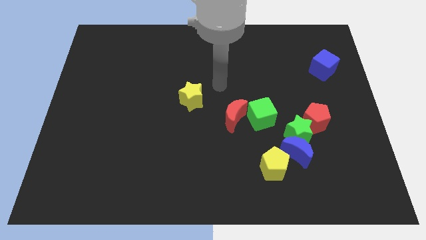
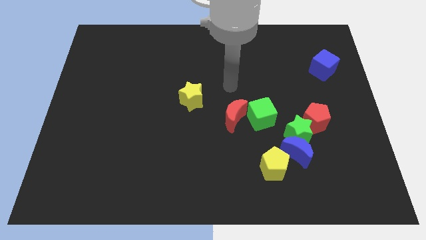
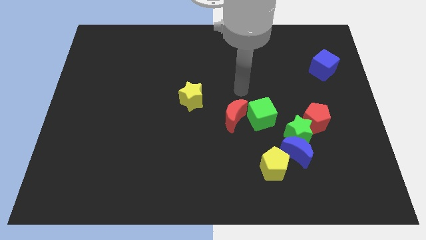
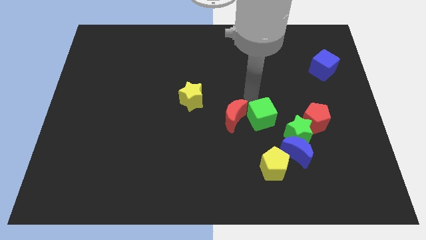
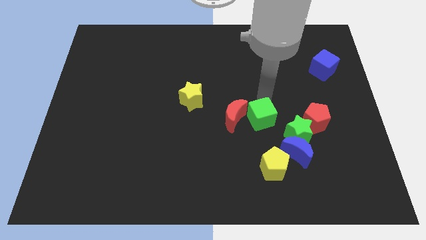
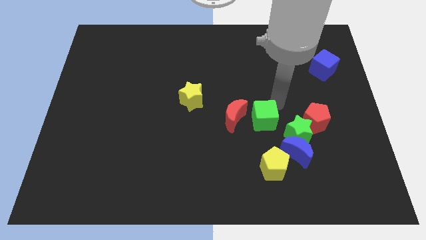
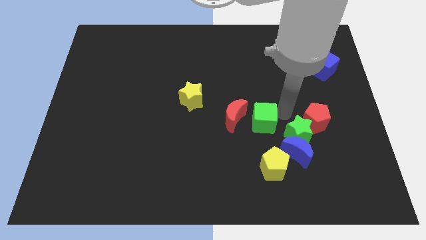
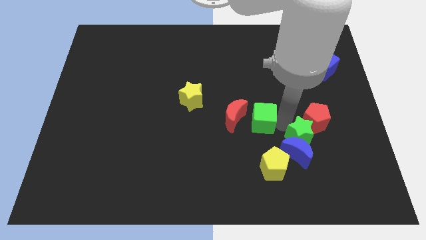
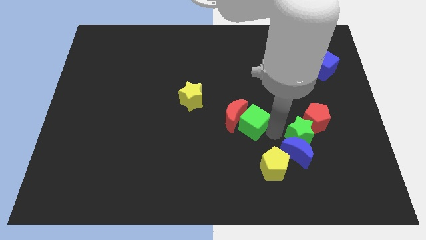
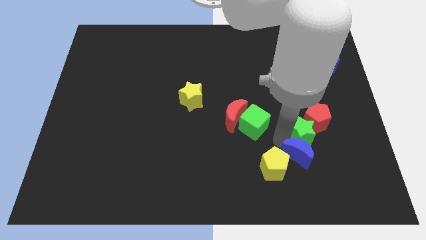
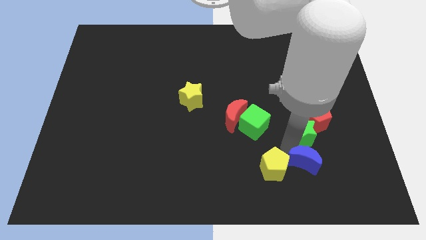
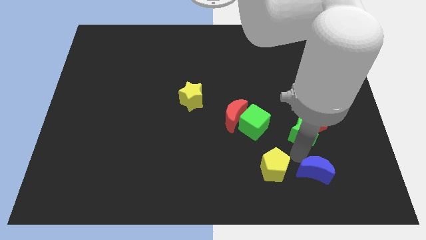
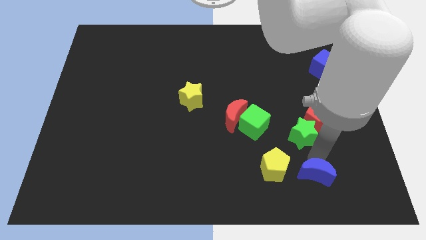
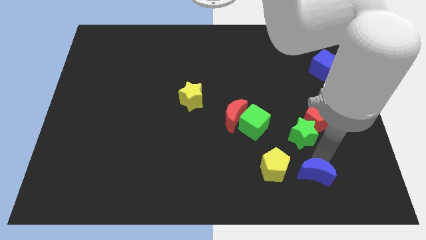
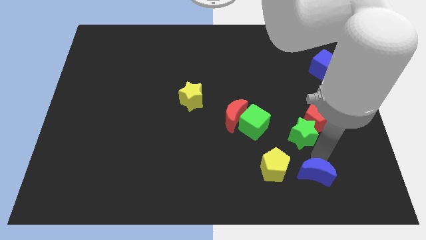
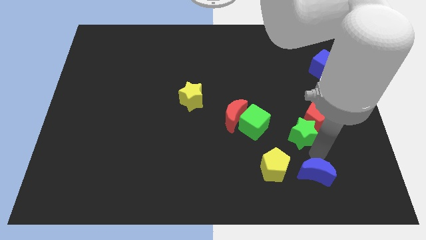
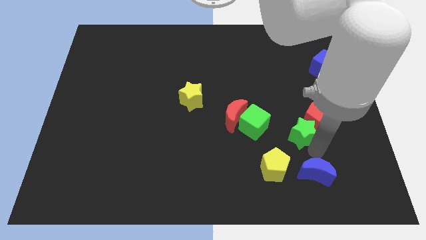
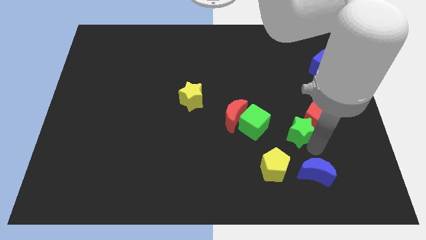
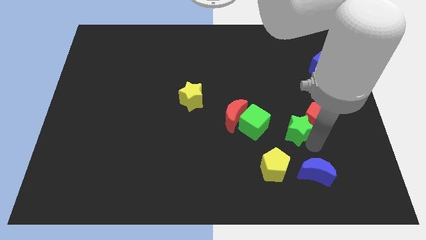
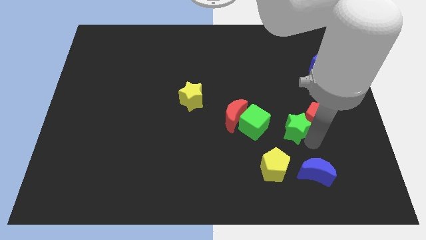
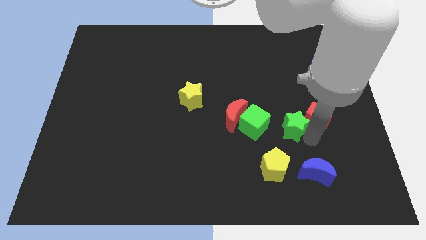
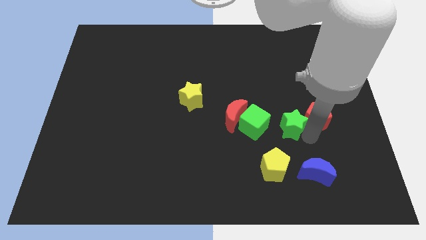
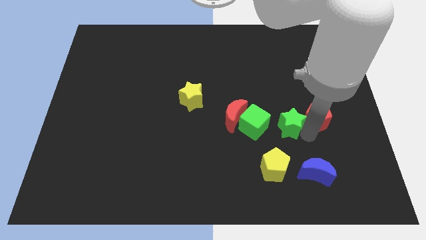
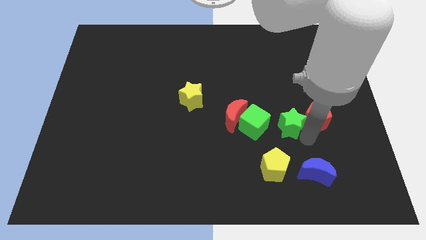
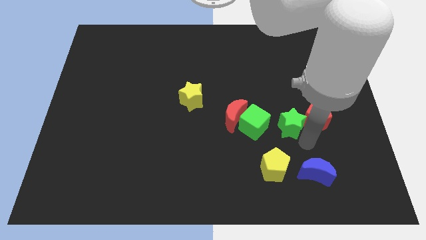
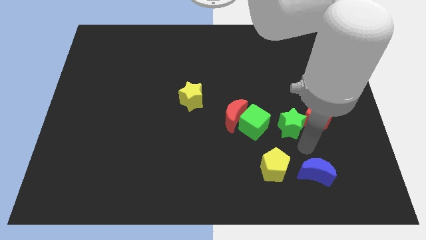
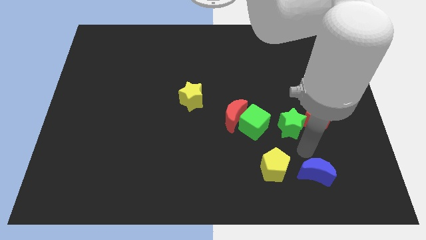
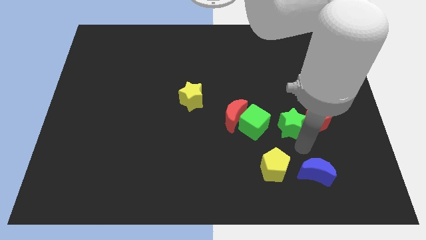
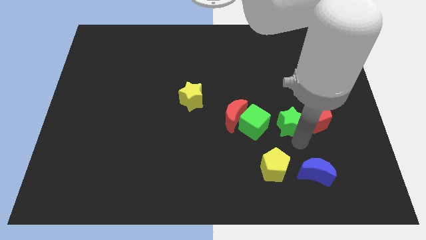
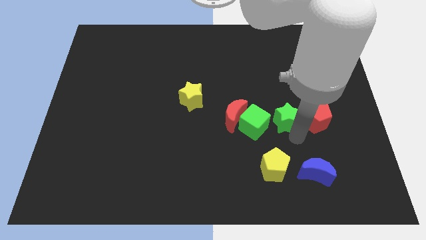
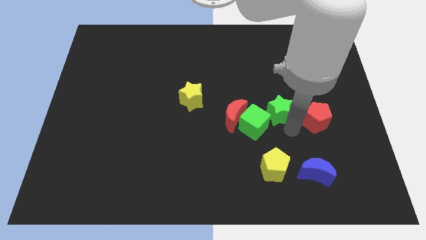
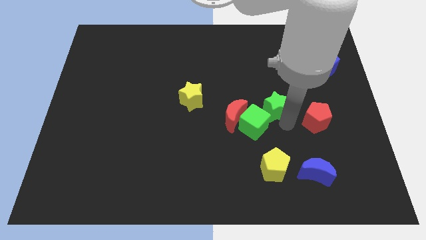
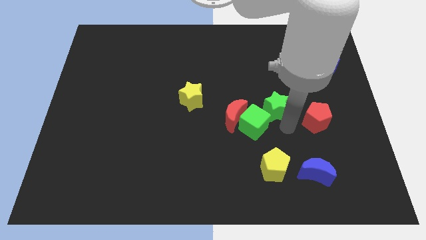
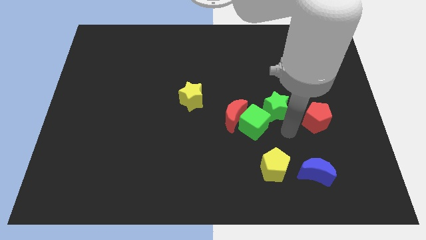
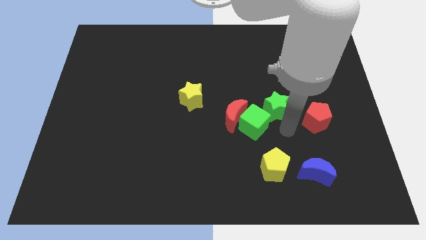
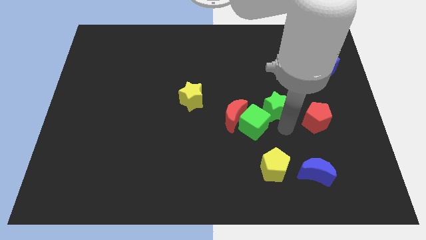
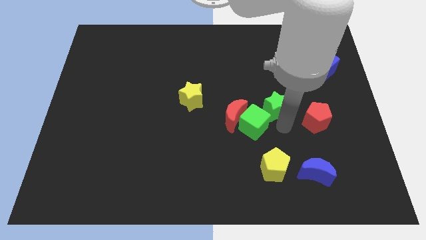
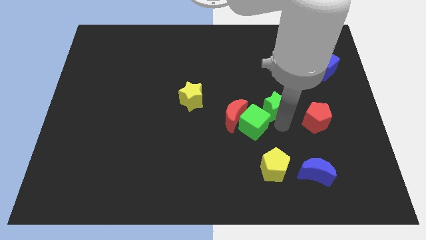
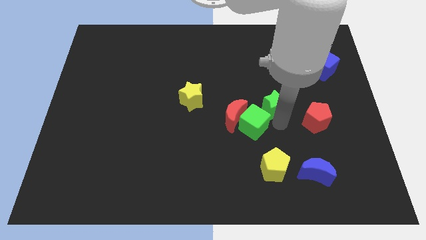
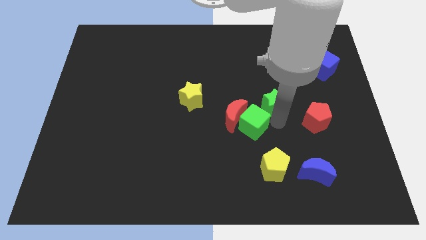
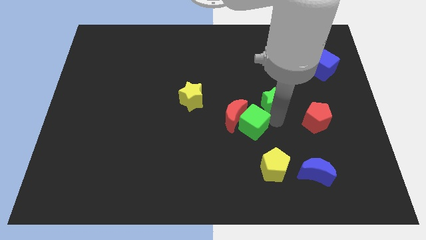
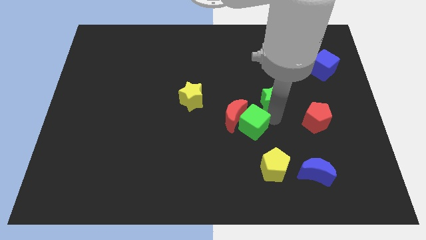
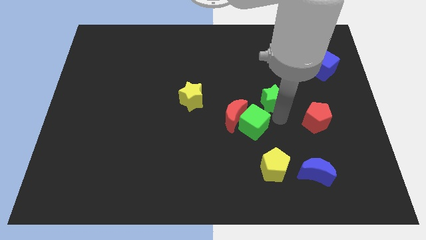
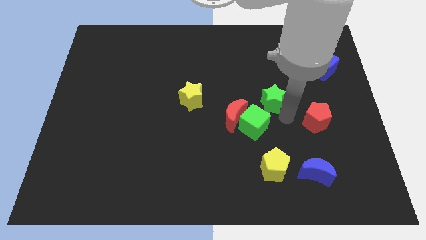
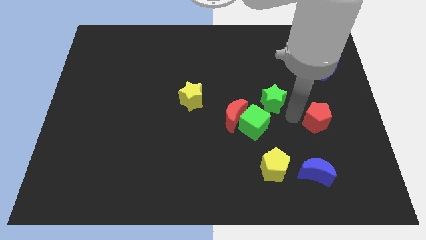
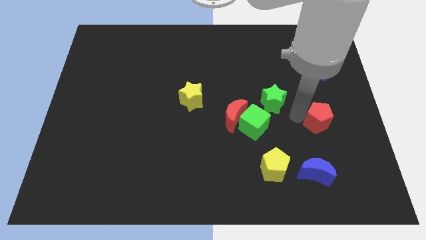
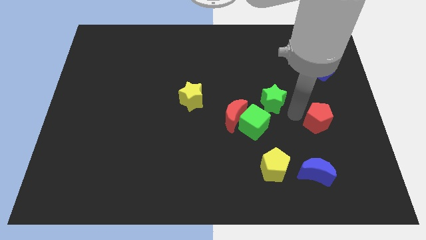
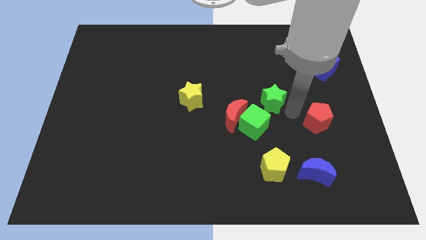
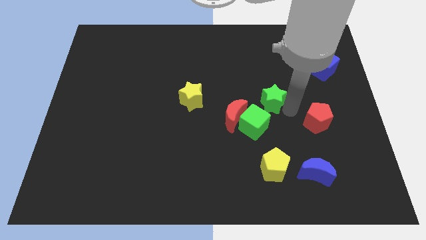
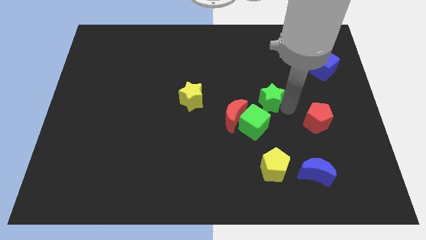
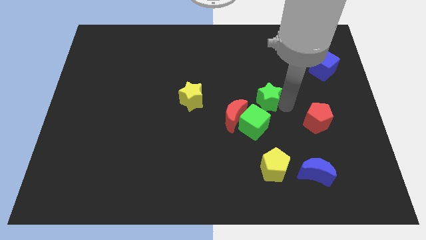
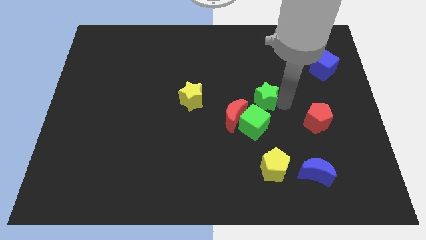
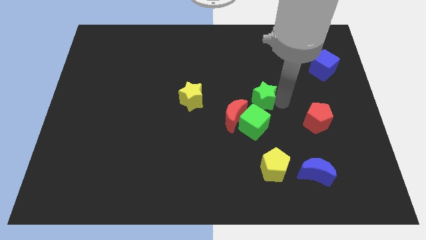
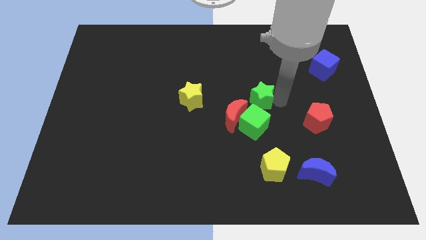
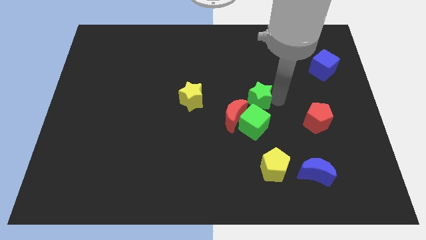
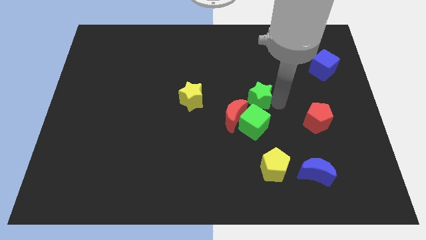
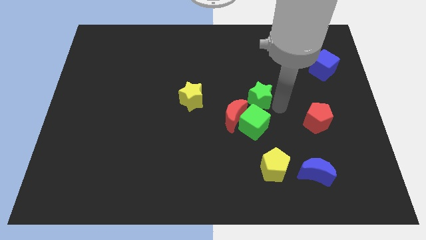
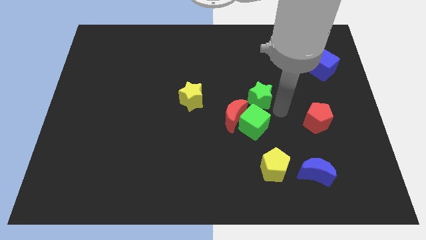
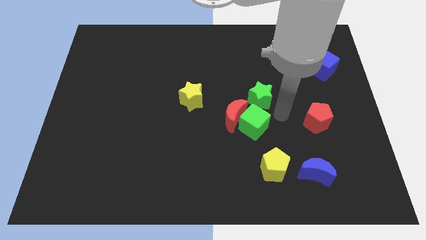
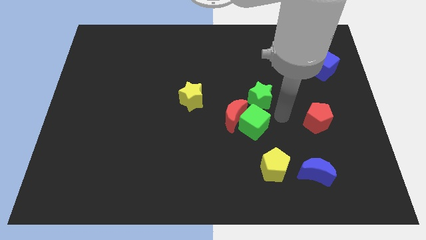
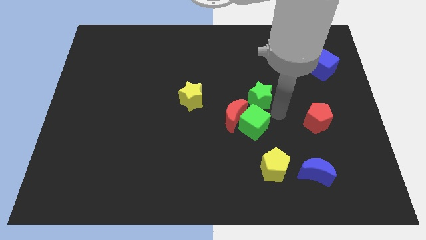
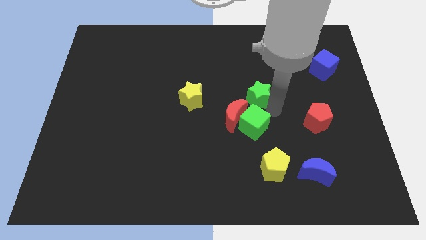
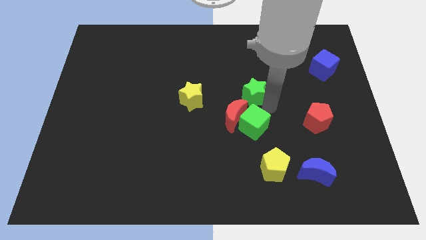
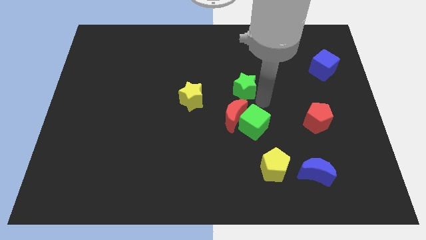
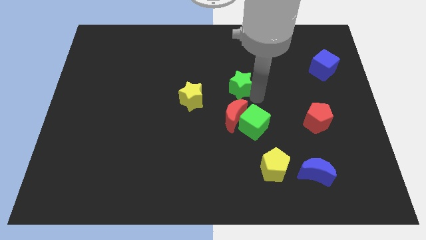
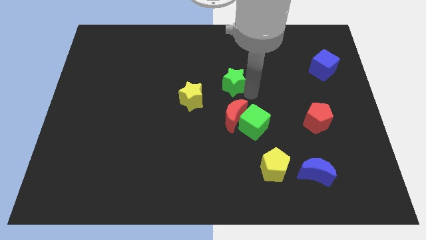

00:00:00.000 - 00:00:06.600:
move the green star upwards and to the left diagonally

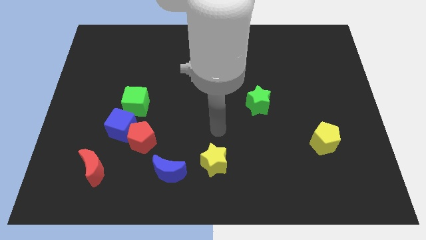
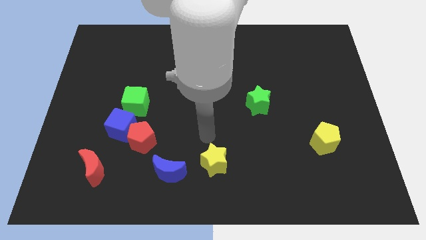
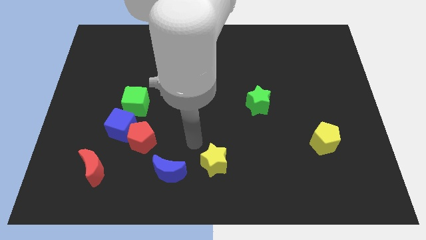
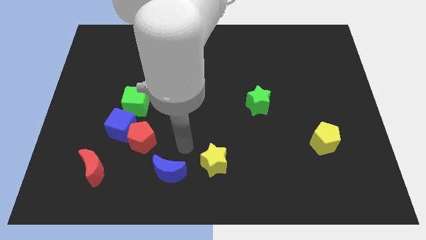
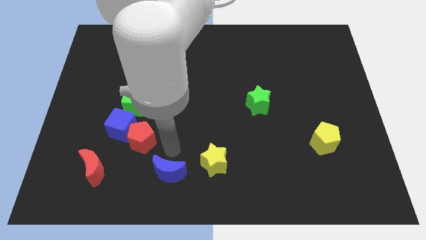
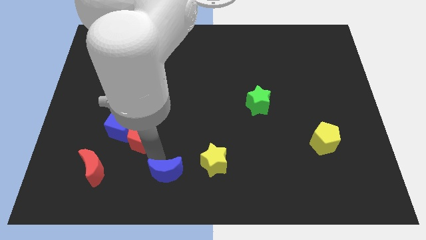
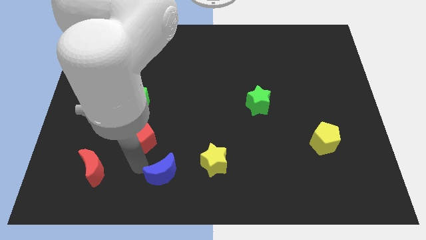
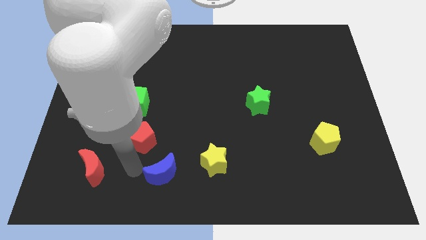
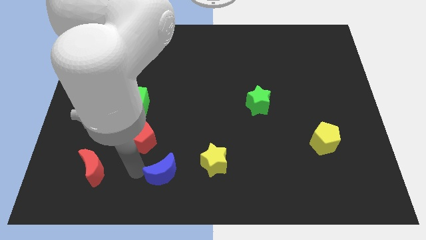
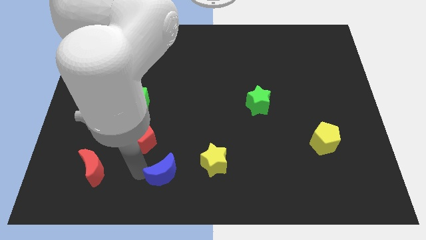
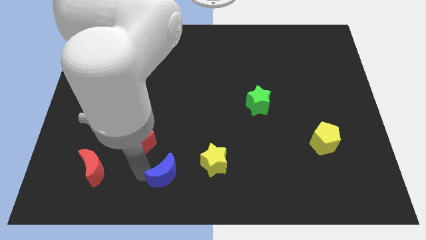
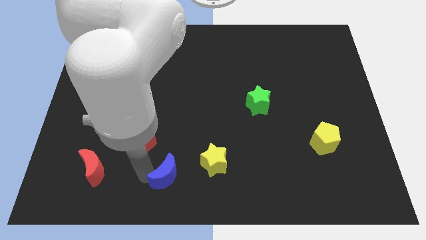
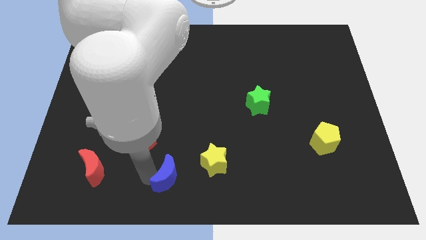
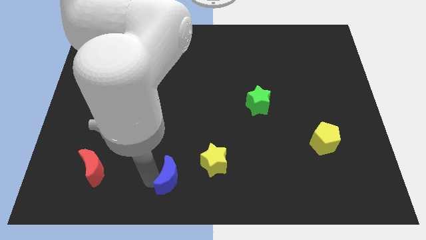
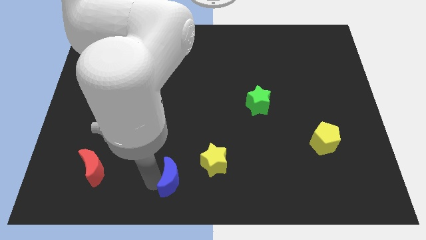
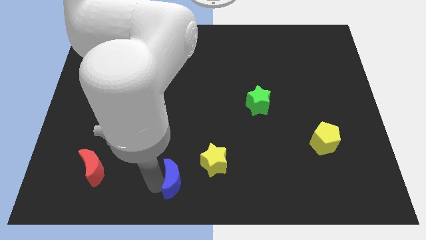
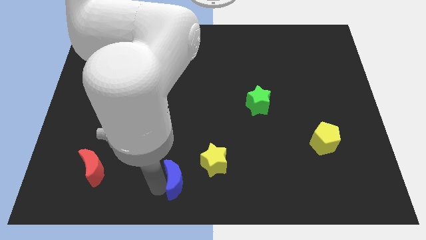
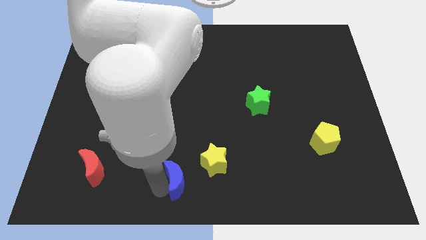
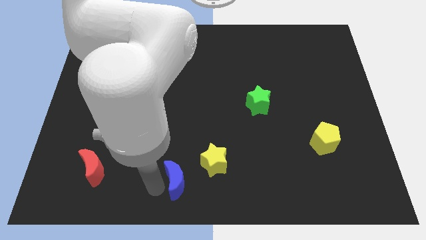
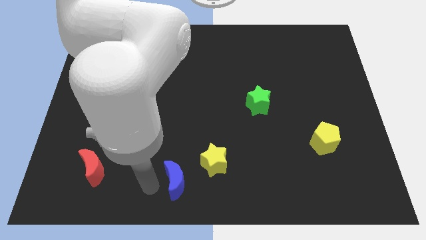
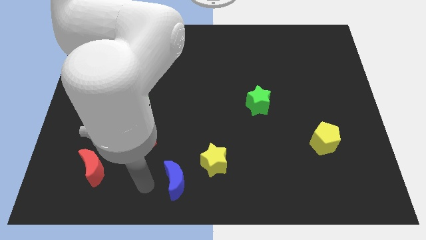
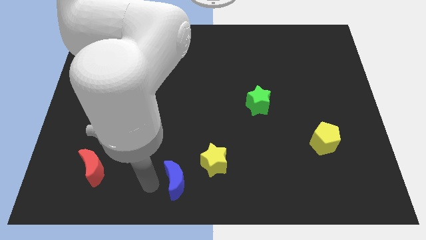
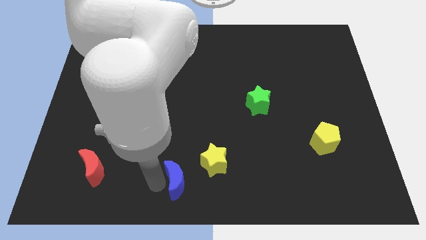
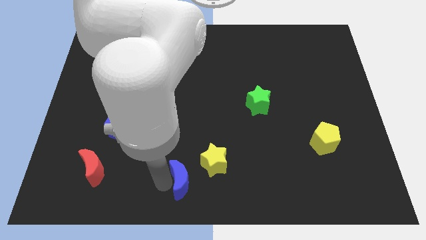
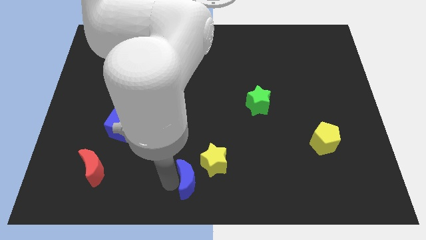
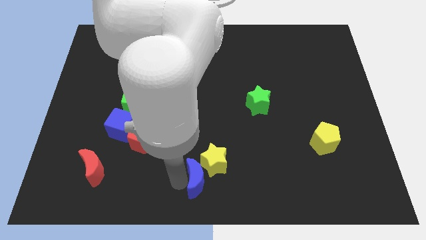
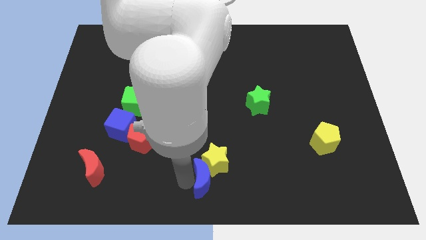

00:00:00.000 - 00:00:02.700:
move the blue moon right a little bit
